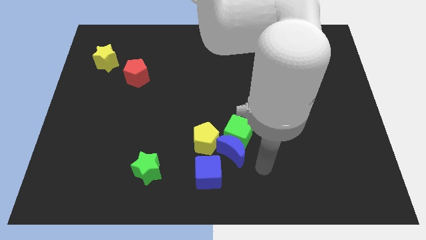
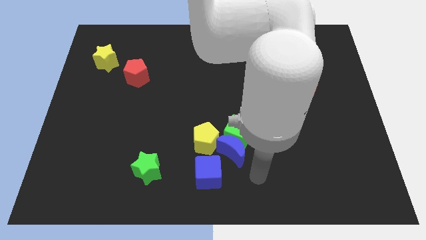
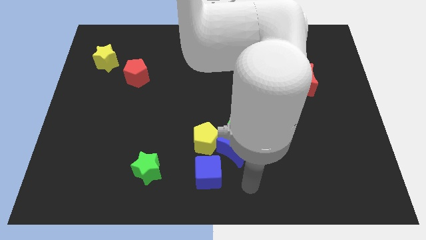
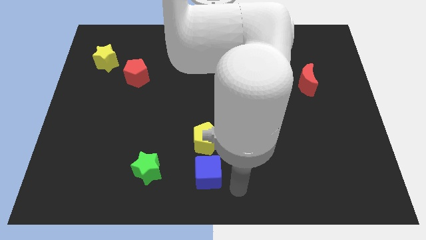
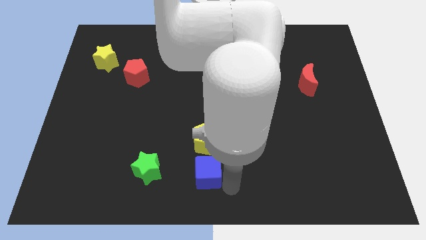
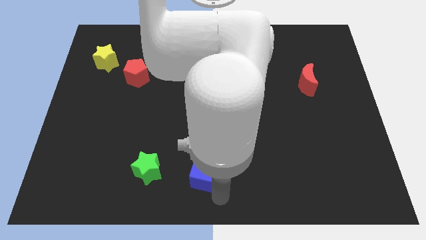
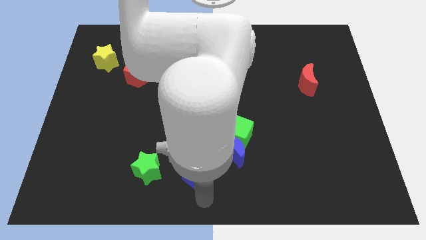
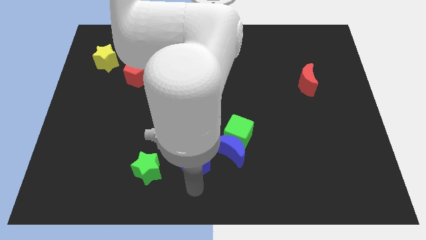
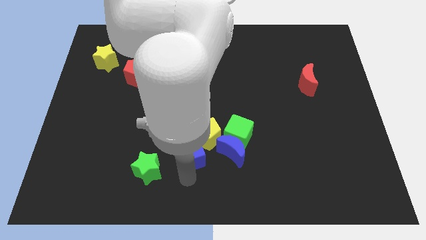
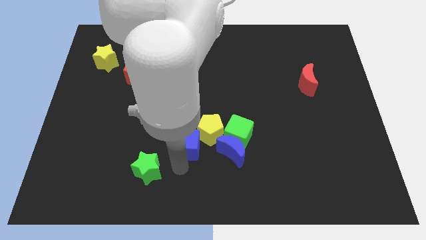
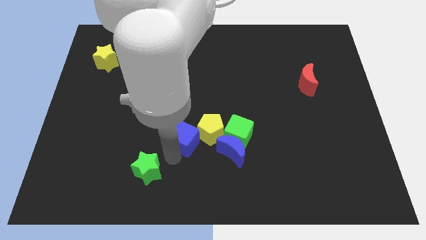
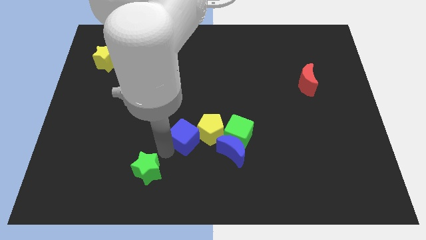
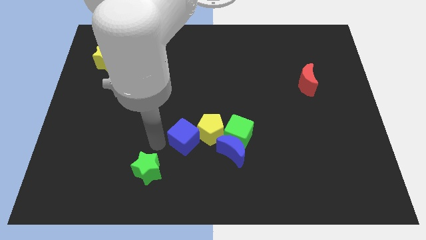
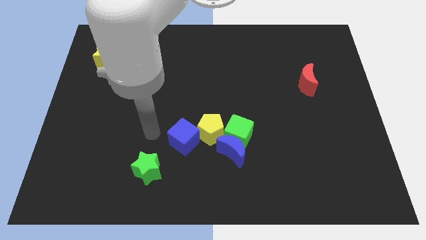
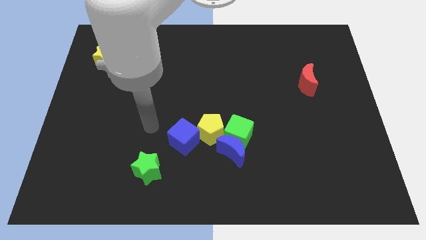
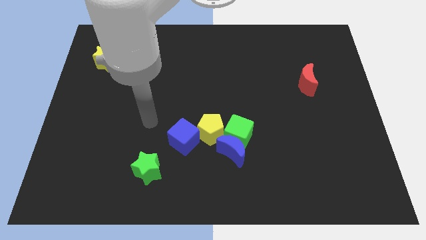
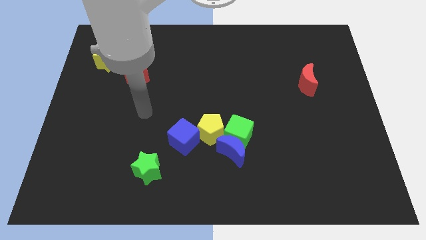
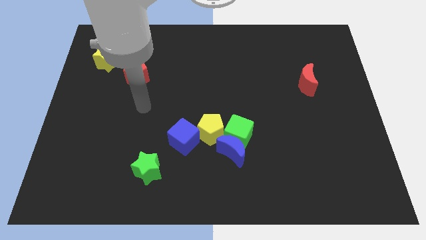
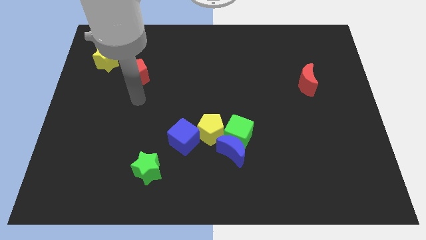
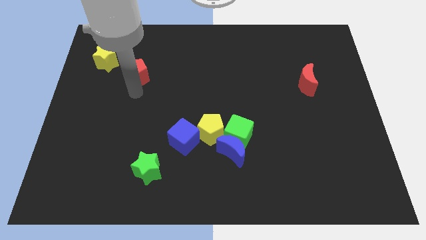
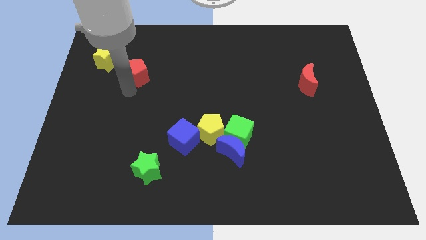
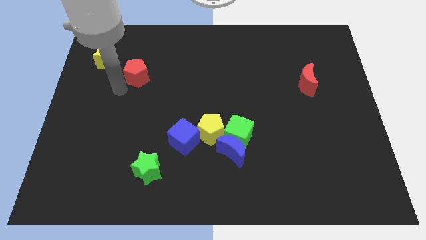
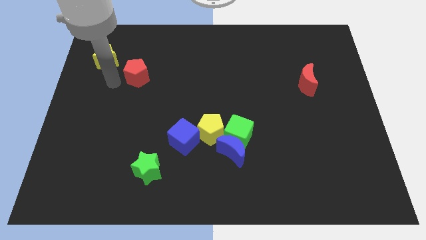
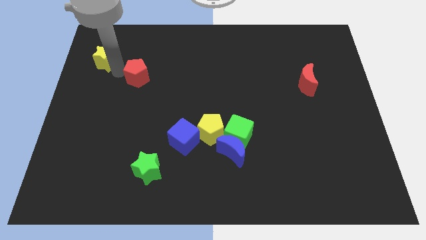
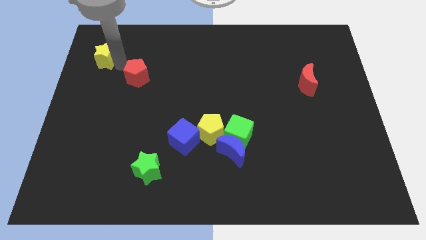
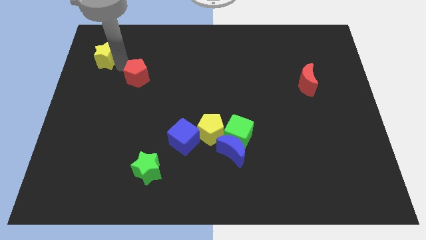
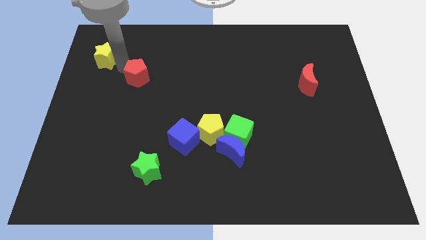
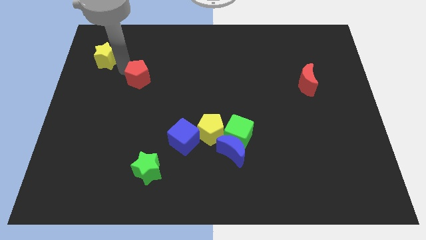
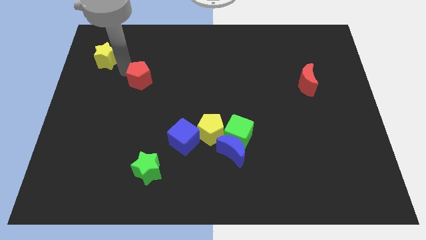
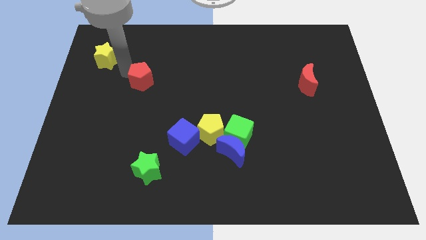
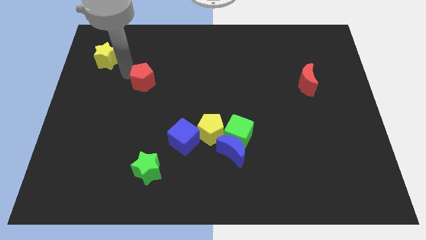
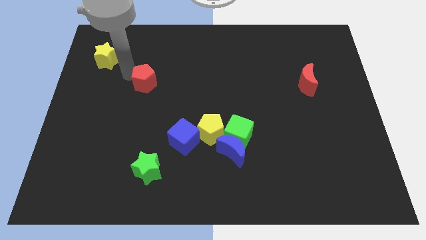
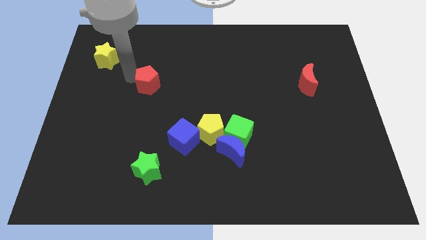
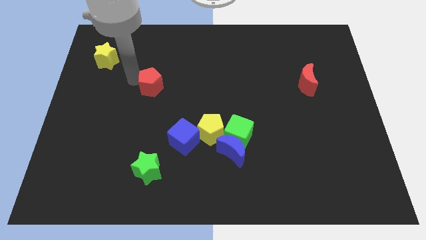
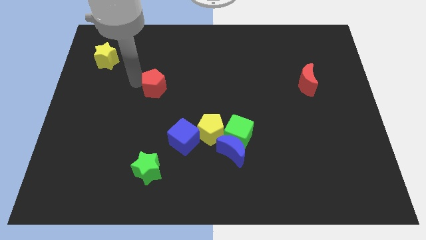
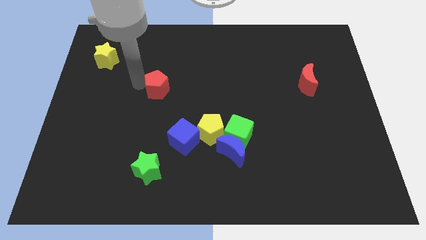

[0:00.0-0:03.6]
push the red pentagon slightly down and then to the right

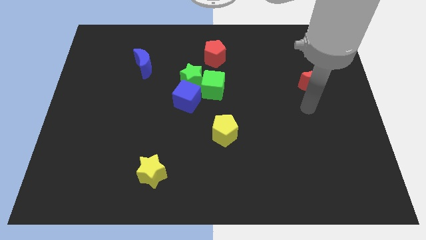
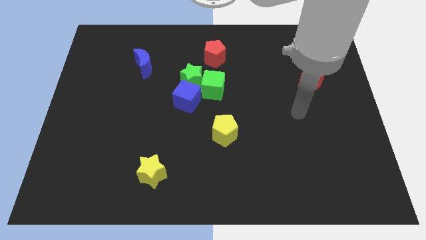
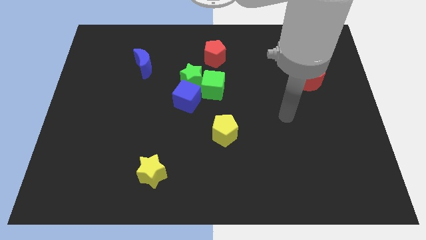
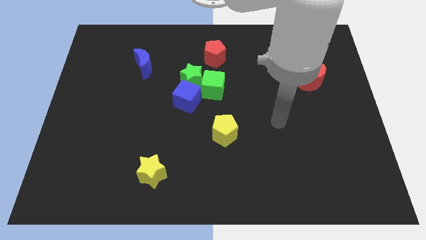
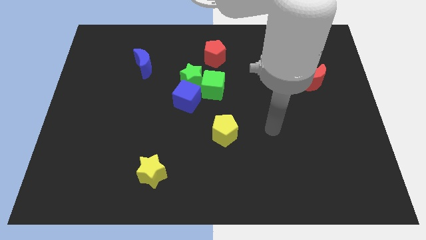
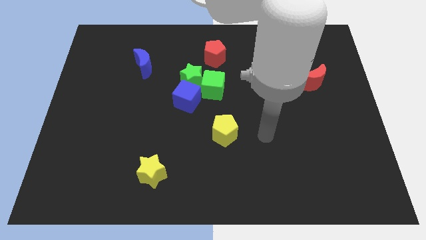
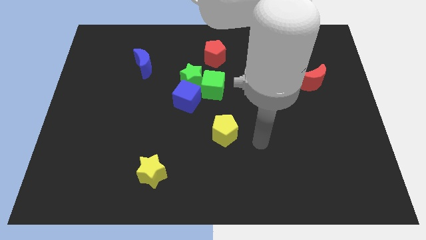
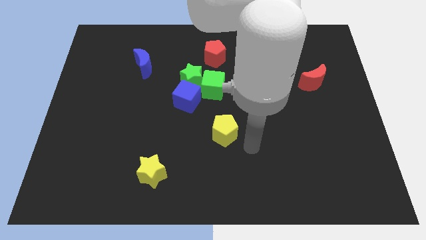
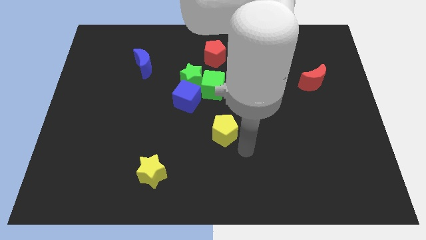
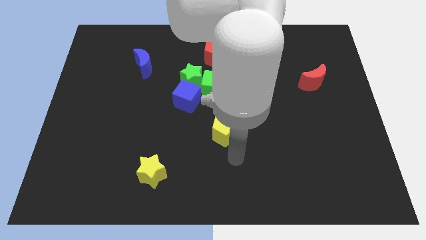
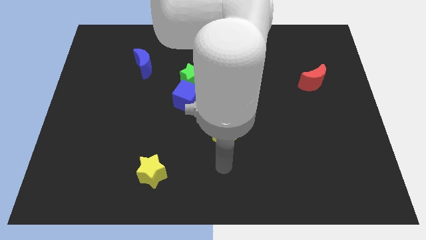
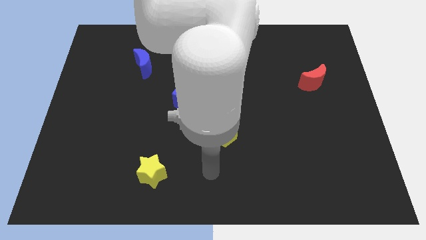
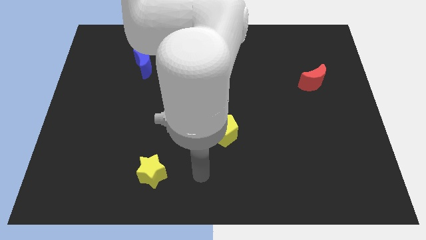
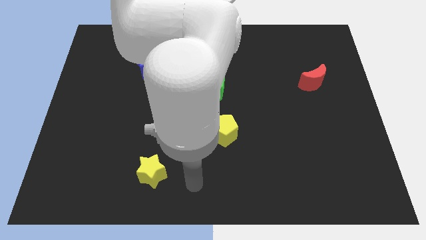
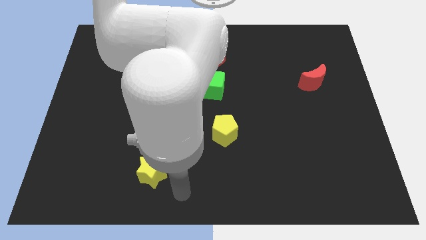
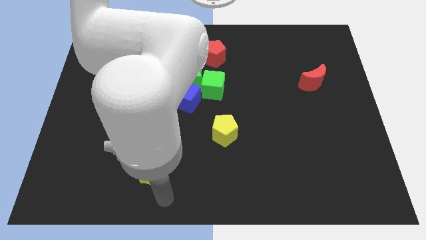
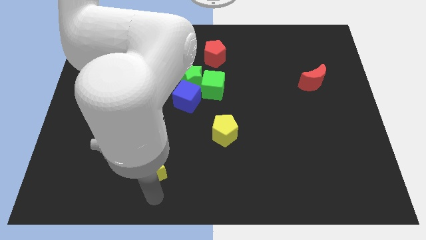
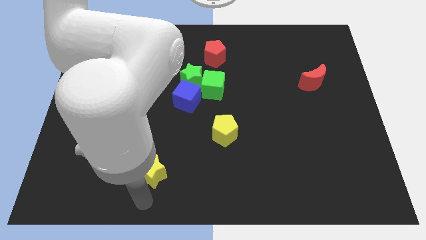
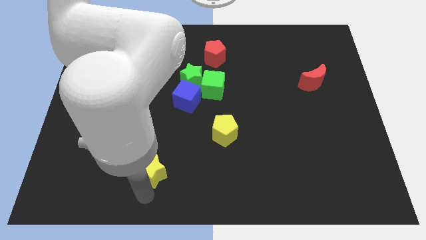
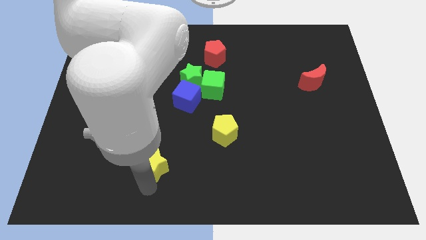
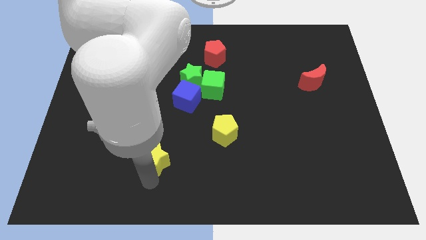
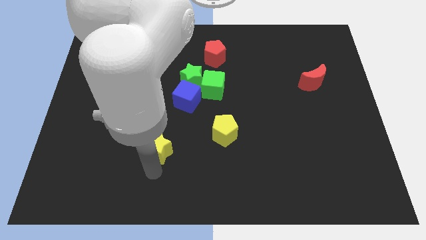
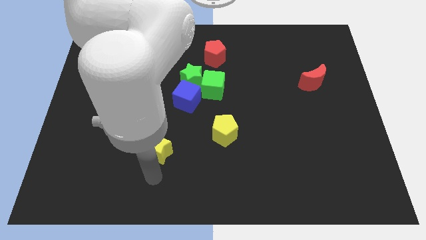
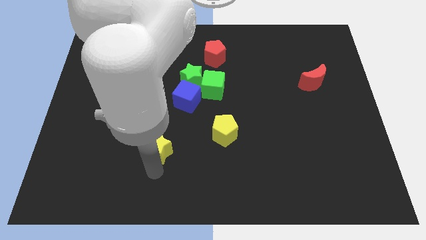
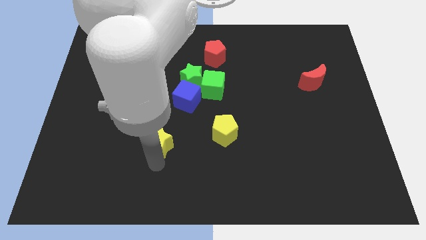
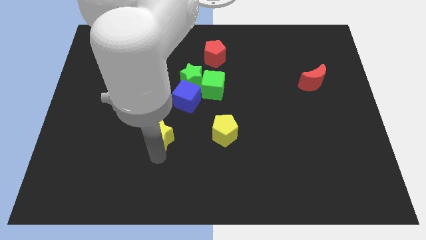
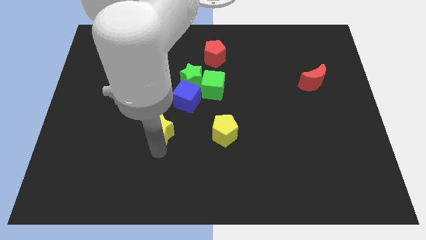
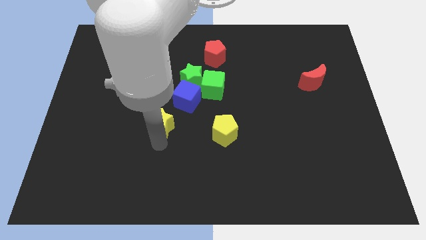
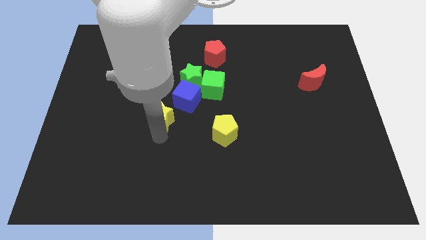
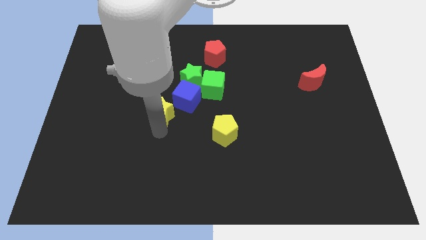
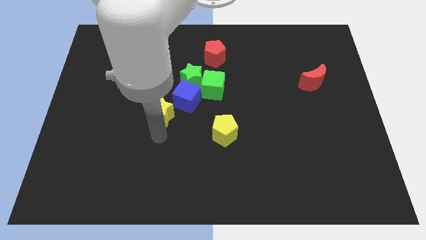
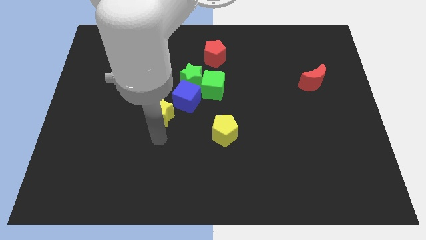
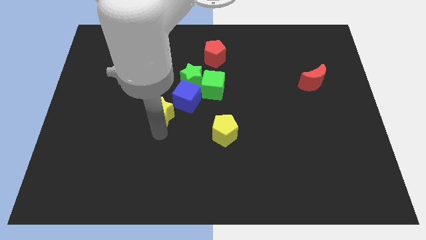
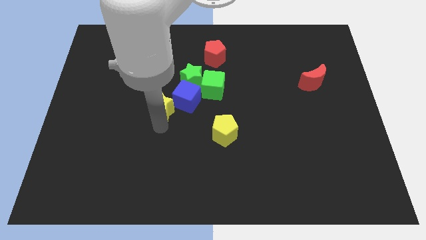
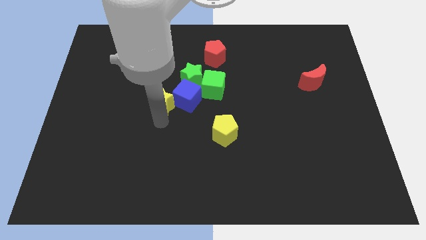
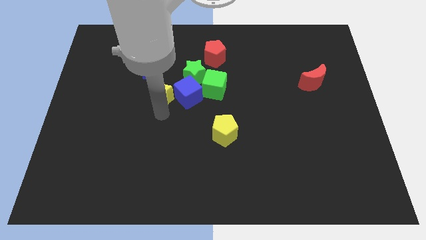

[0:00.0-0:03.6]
move the yellow star upwards

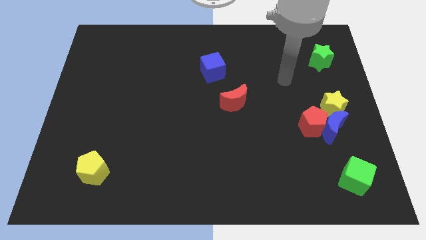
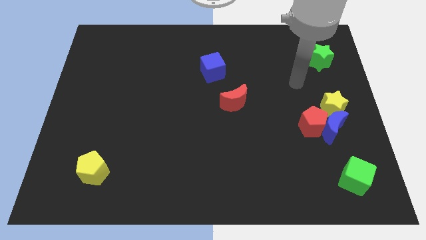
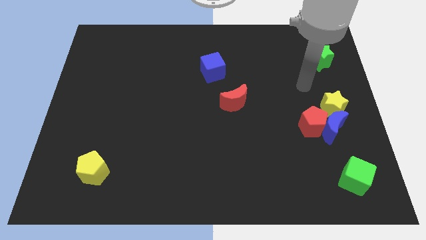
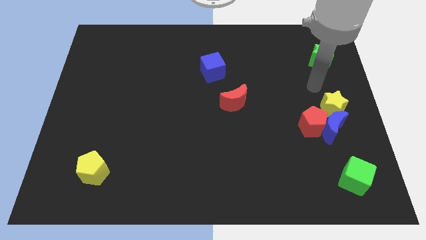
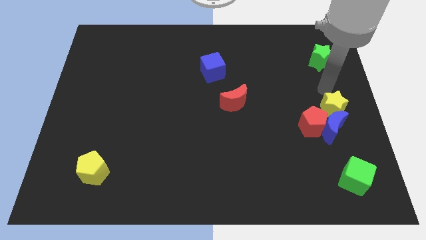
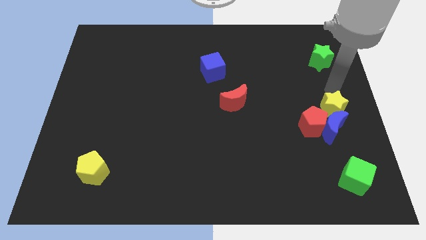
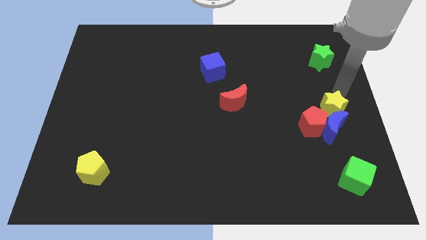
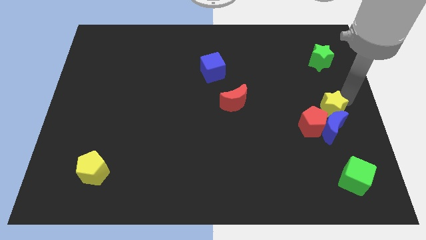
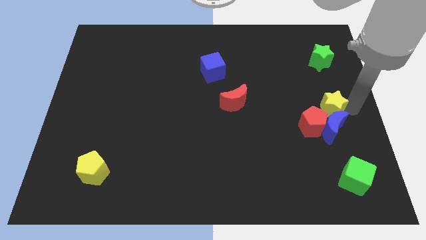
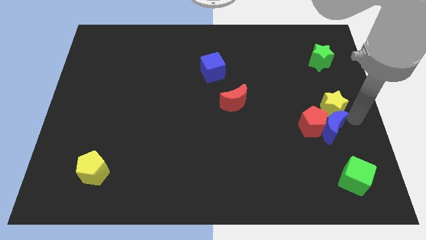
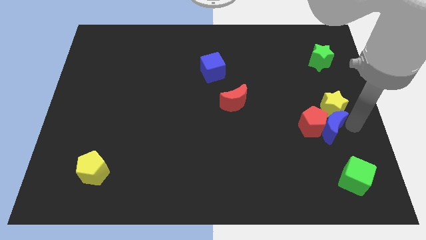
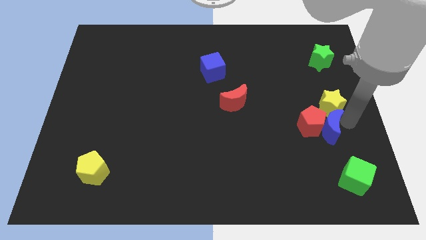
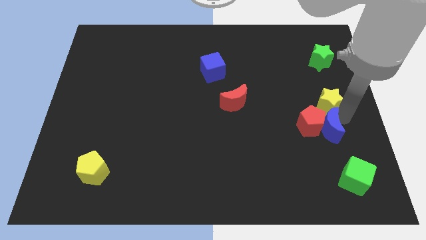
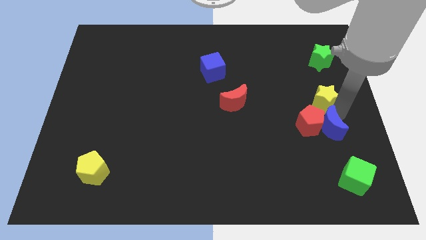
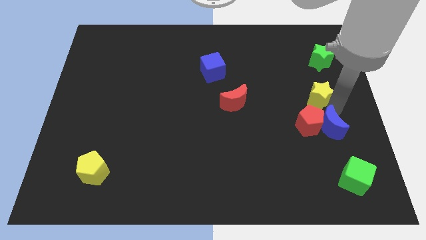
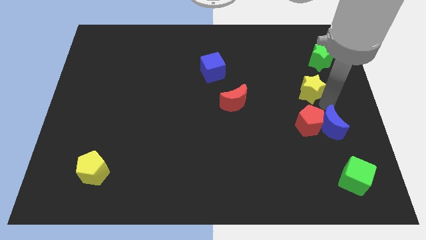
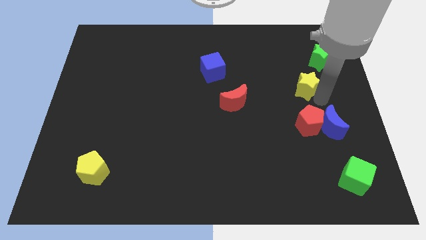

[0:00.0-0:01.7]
slightly push the yellow star up and left
